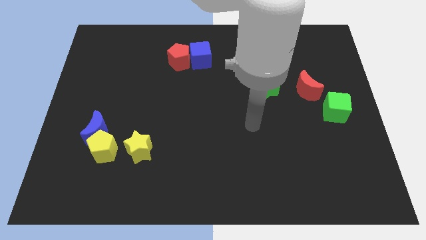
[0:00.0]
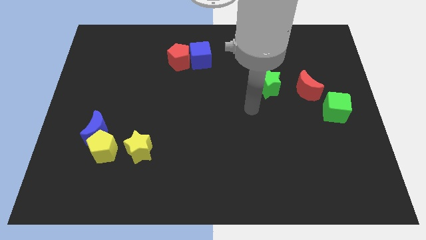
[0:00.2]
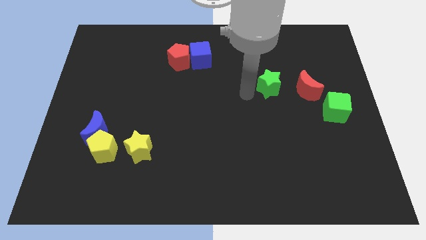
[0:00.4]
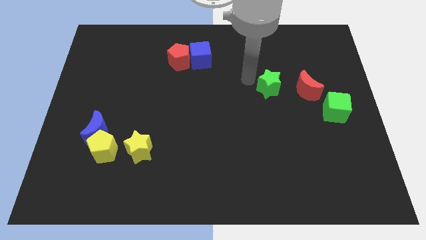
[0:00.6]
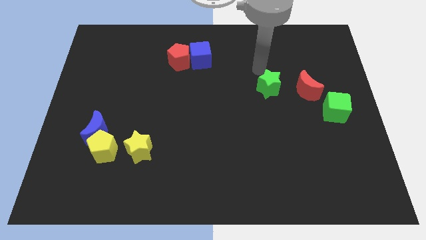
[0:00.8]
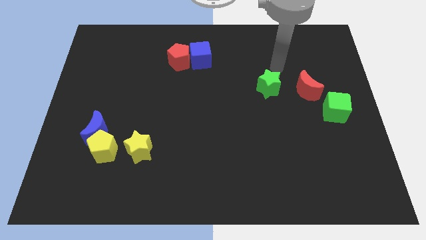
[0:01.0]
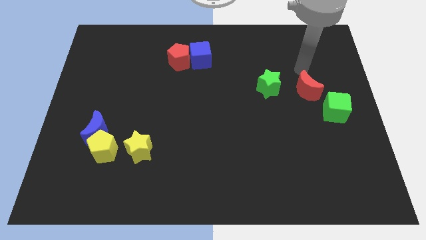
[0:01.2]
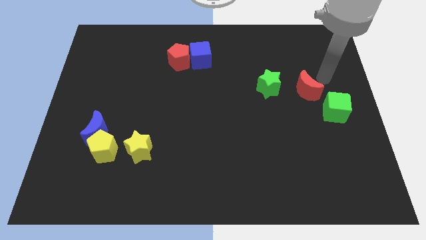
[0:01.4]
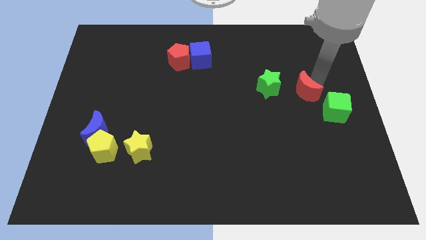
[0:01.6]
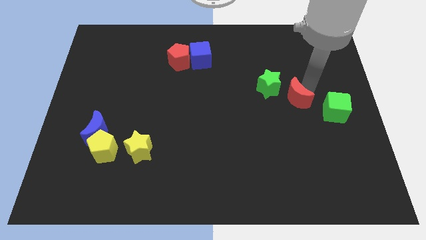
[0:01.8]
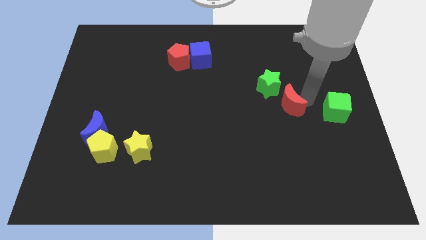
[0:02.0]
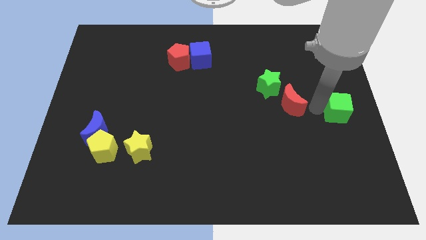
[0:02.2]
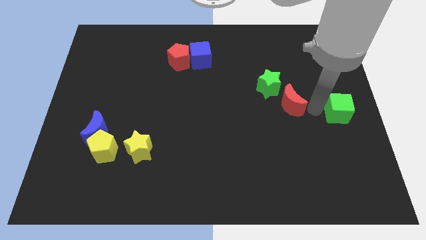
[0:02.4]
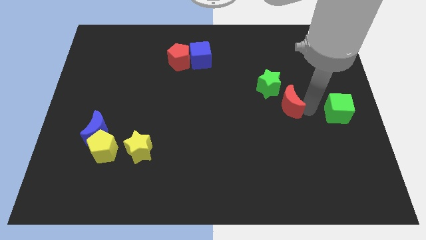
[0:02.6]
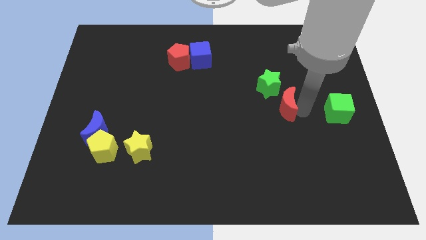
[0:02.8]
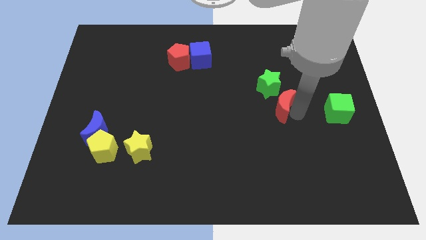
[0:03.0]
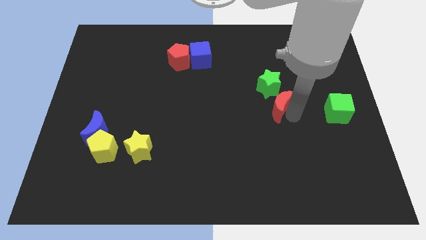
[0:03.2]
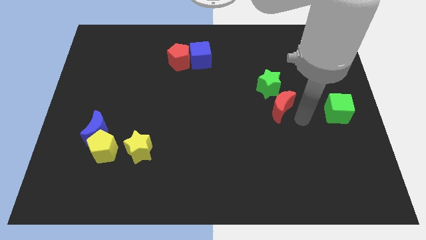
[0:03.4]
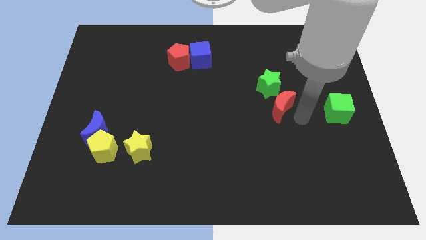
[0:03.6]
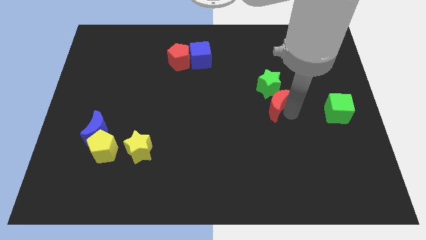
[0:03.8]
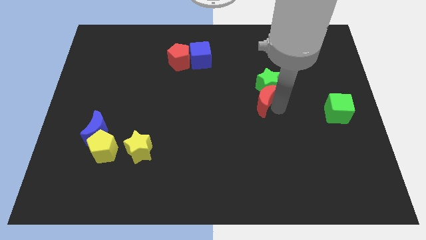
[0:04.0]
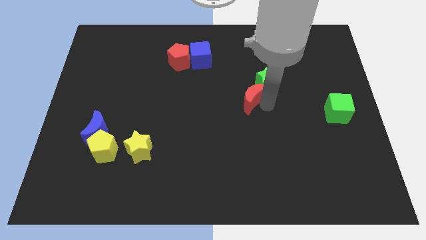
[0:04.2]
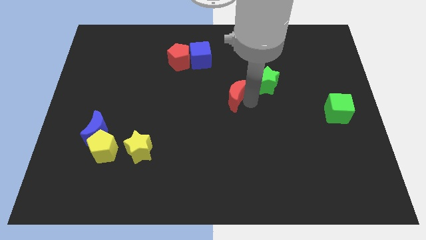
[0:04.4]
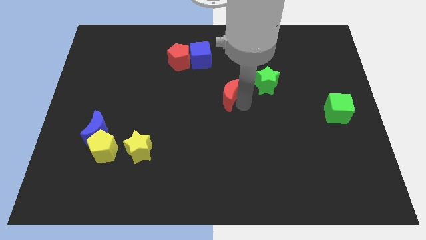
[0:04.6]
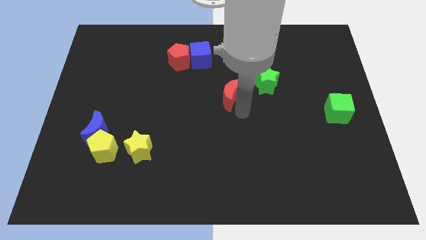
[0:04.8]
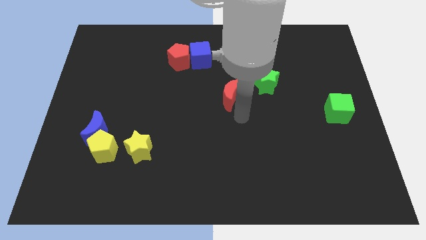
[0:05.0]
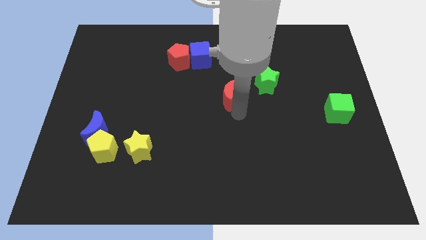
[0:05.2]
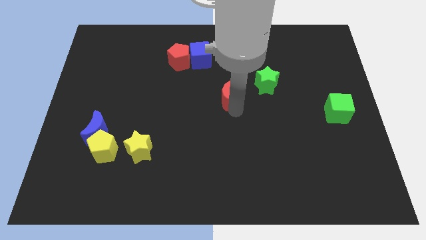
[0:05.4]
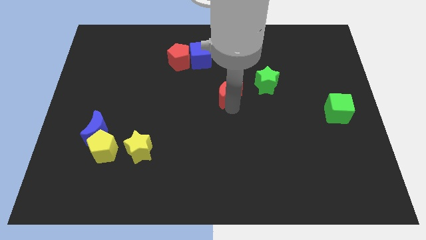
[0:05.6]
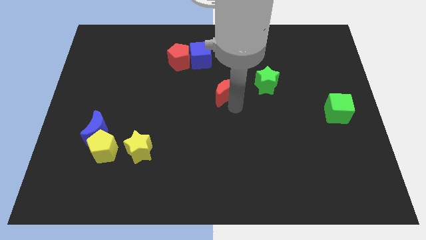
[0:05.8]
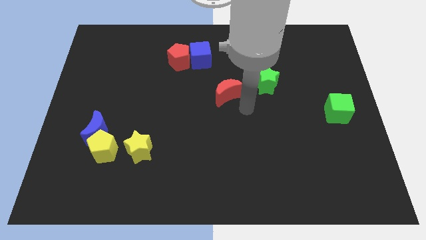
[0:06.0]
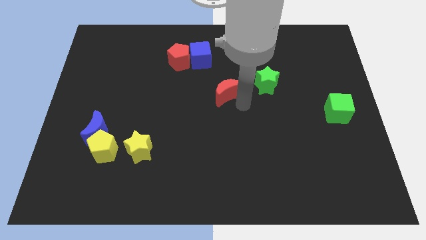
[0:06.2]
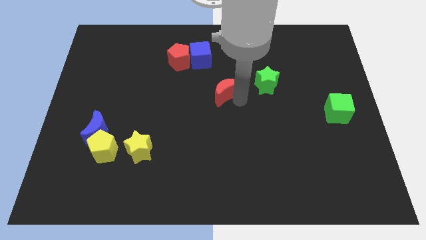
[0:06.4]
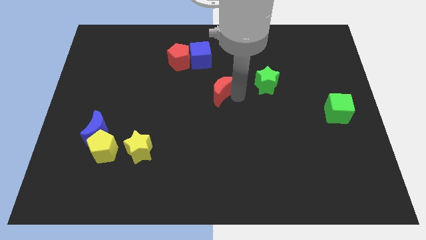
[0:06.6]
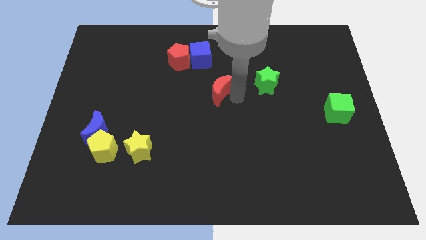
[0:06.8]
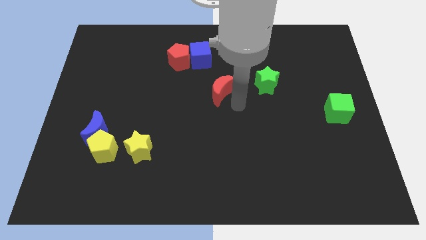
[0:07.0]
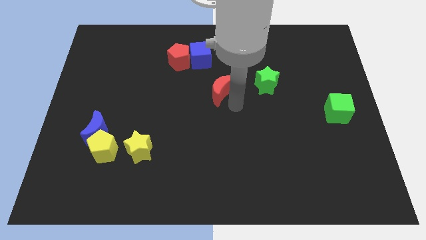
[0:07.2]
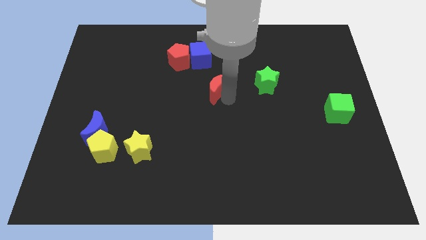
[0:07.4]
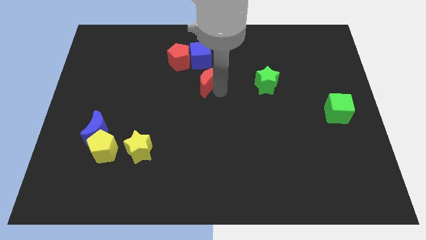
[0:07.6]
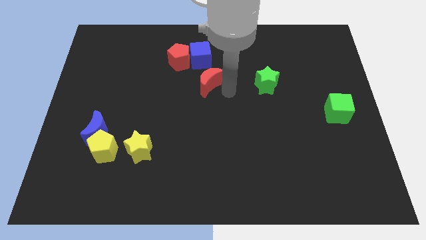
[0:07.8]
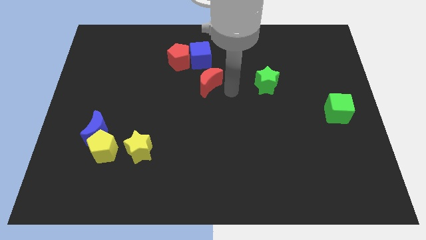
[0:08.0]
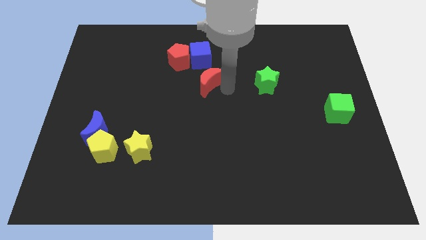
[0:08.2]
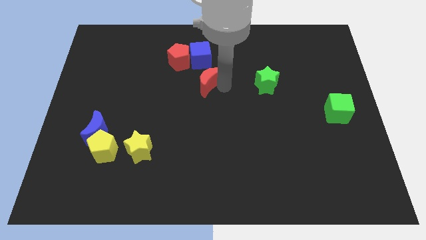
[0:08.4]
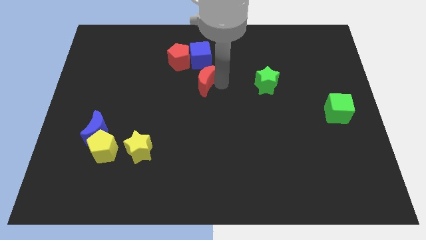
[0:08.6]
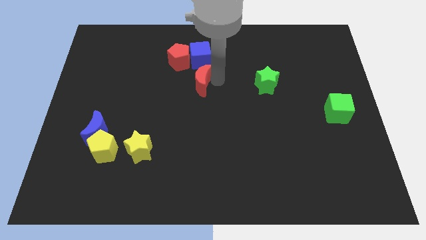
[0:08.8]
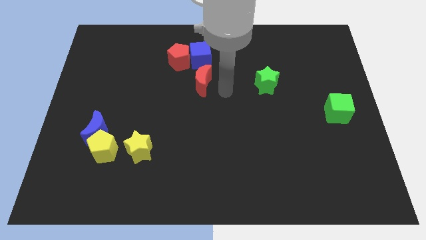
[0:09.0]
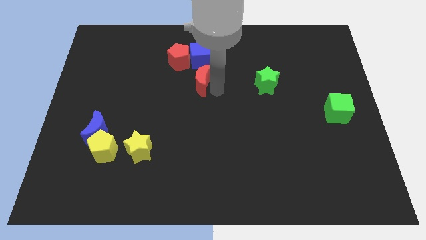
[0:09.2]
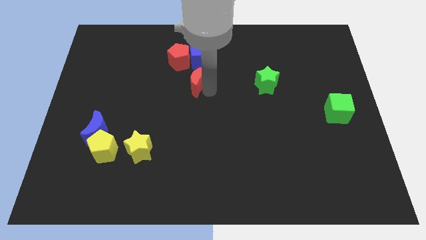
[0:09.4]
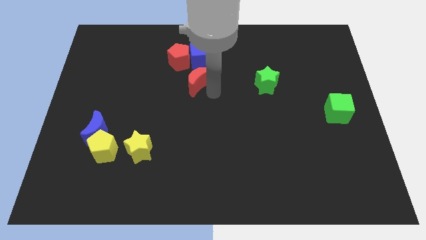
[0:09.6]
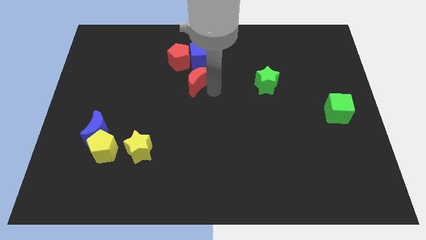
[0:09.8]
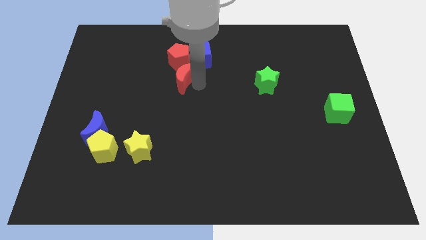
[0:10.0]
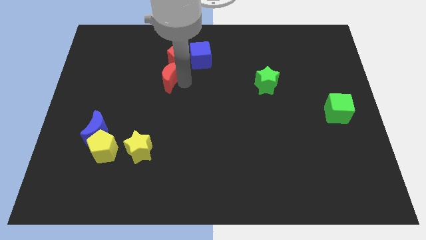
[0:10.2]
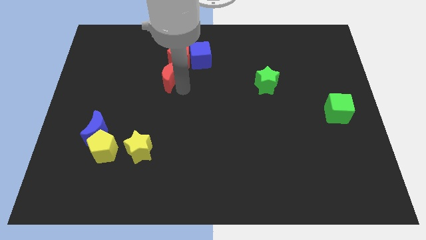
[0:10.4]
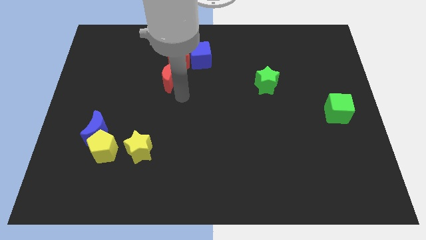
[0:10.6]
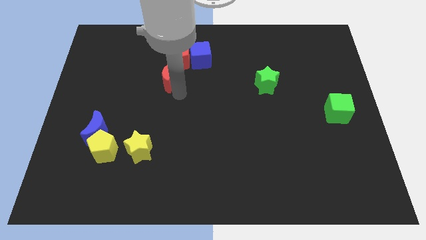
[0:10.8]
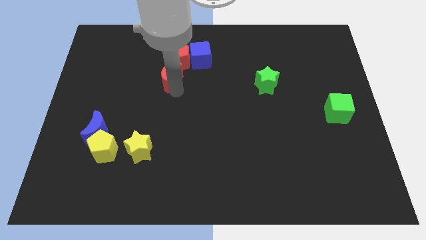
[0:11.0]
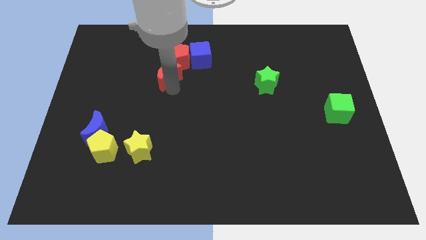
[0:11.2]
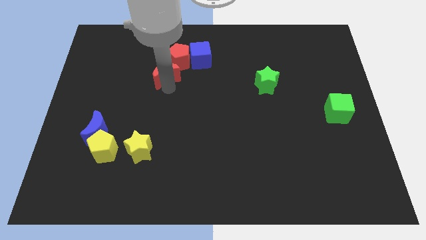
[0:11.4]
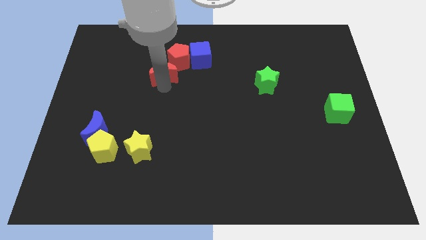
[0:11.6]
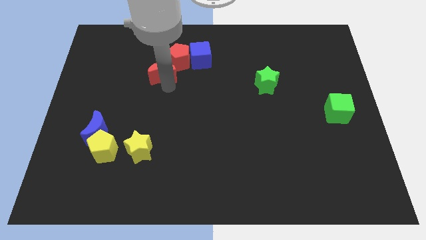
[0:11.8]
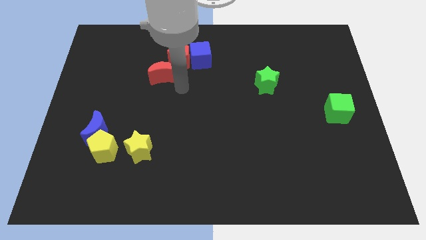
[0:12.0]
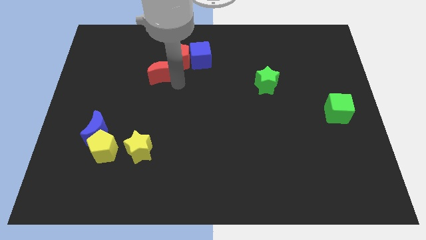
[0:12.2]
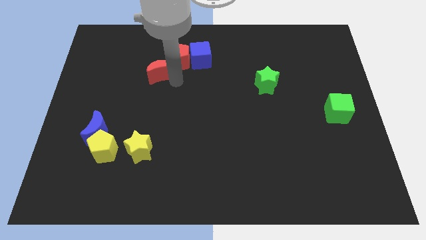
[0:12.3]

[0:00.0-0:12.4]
slide the red moon to the left of the red pentagon
